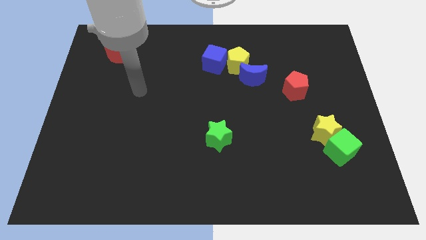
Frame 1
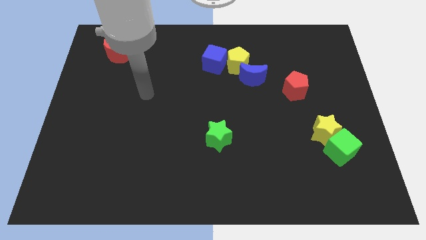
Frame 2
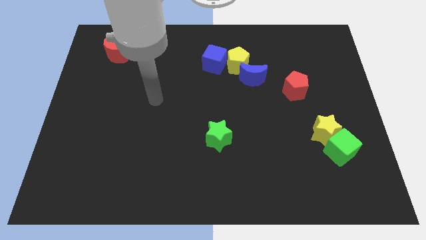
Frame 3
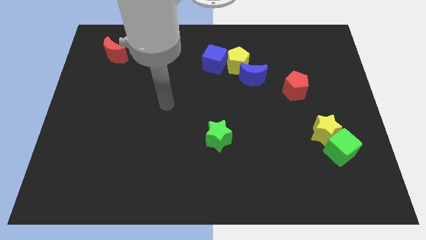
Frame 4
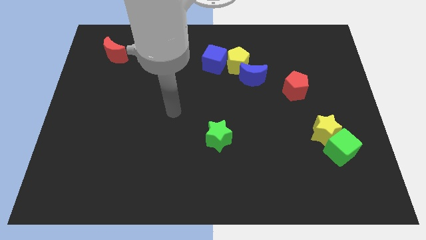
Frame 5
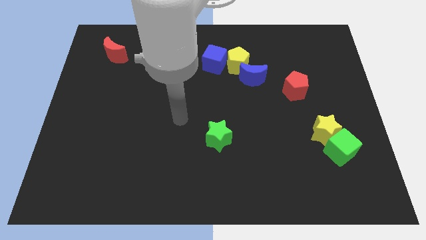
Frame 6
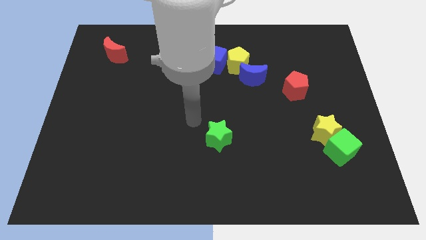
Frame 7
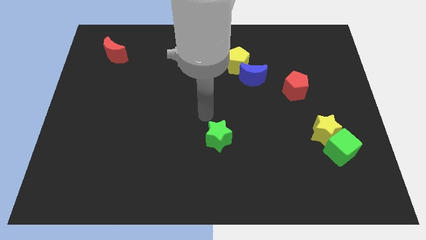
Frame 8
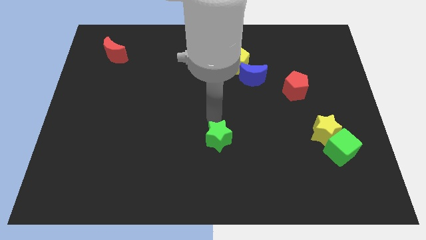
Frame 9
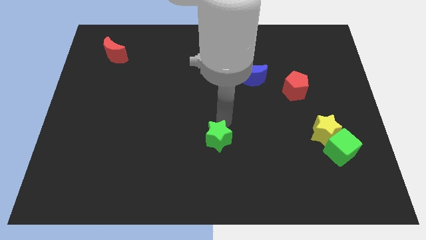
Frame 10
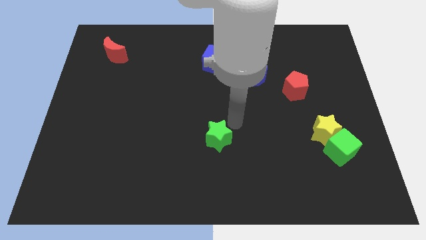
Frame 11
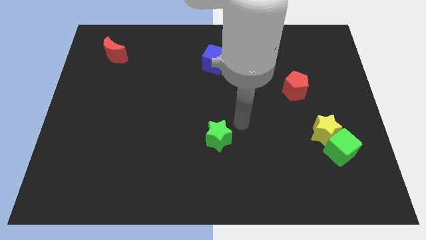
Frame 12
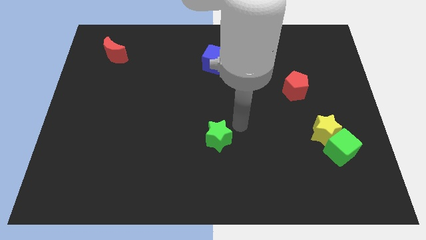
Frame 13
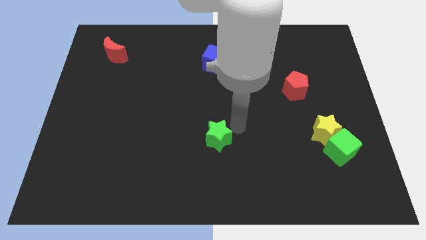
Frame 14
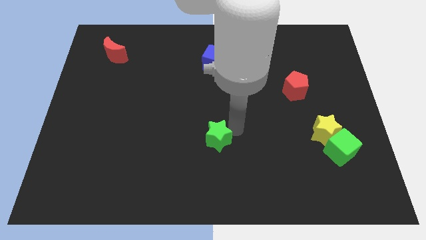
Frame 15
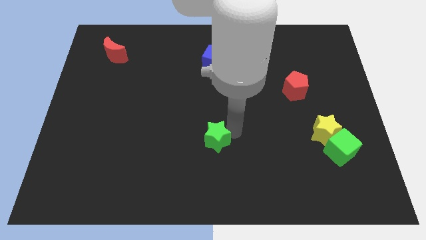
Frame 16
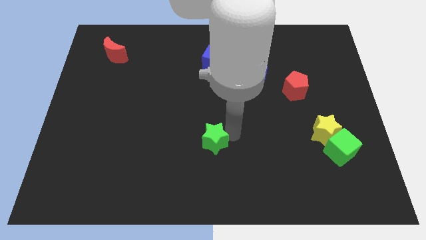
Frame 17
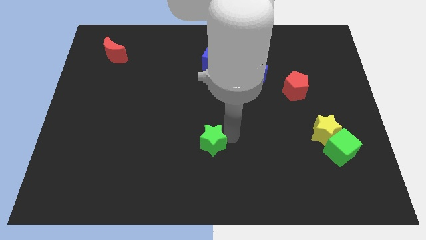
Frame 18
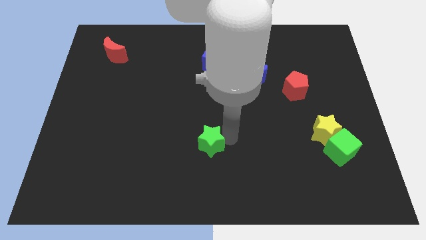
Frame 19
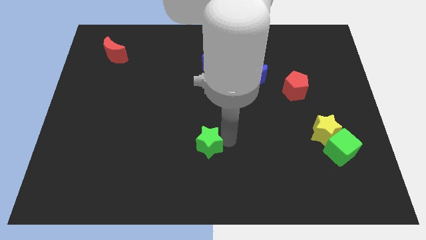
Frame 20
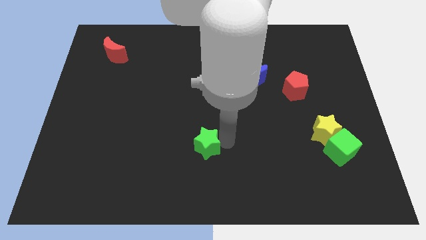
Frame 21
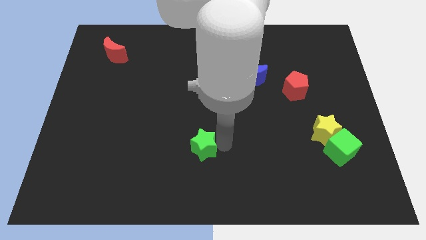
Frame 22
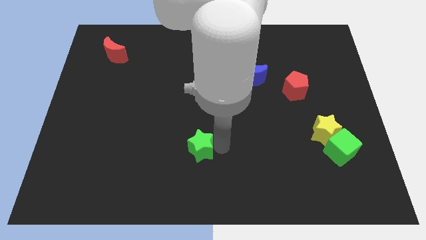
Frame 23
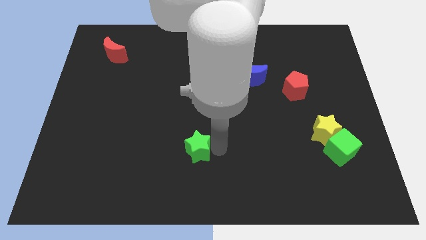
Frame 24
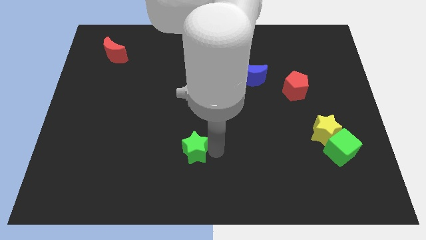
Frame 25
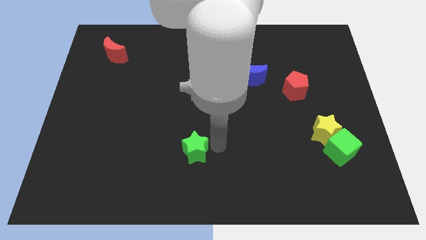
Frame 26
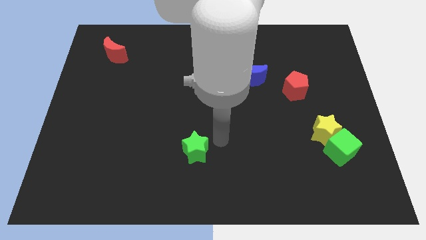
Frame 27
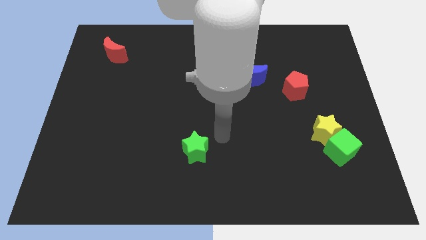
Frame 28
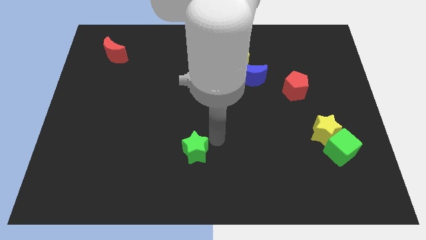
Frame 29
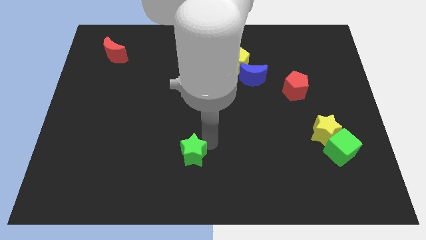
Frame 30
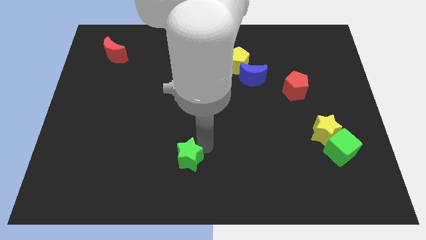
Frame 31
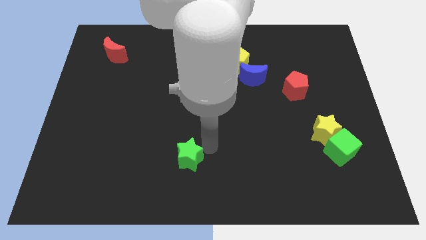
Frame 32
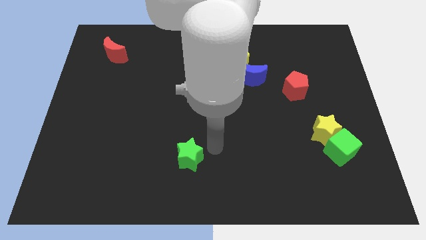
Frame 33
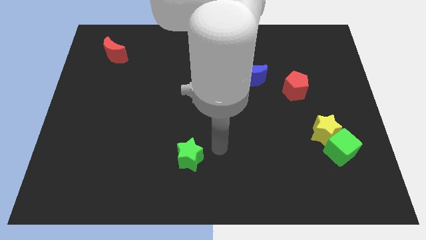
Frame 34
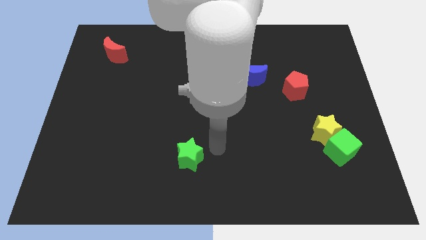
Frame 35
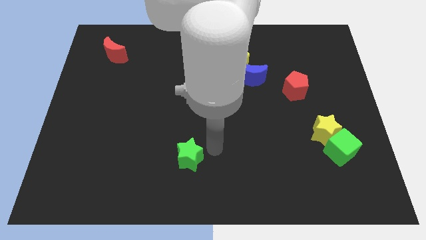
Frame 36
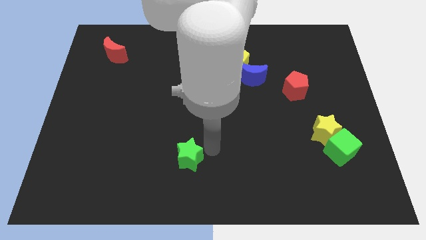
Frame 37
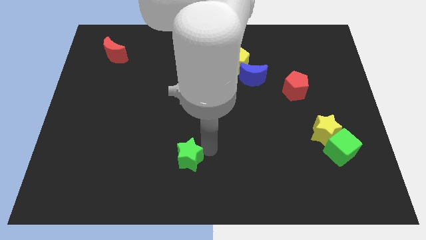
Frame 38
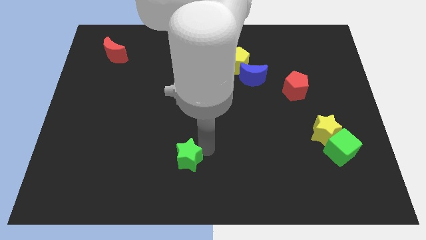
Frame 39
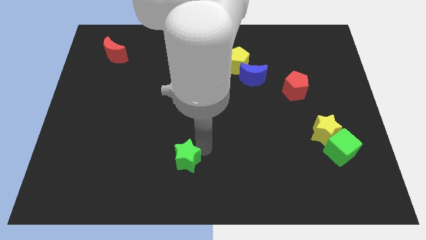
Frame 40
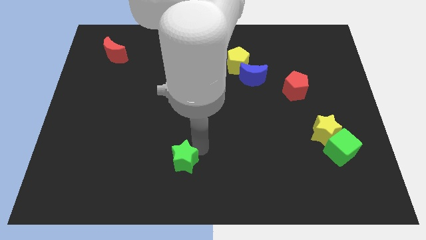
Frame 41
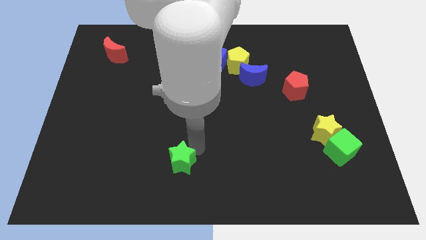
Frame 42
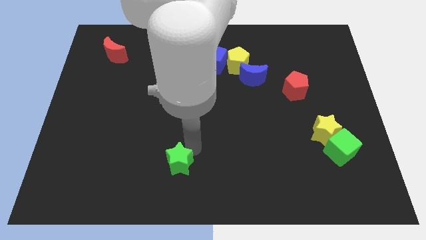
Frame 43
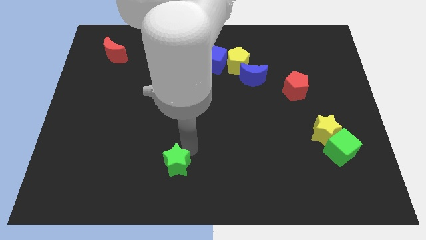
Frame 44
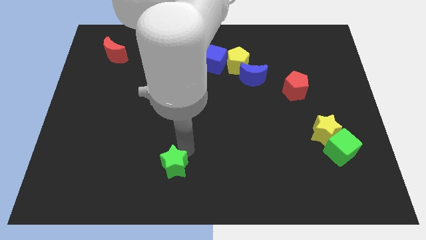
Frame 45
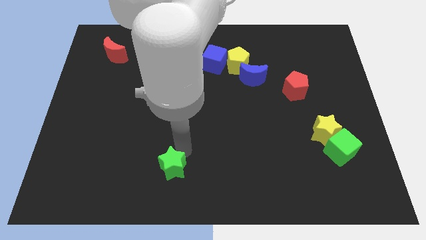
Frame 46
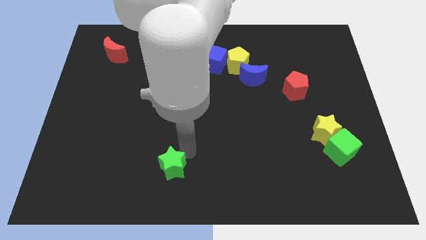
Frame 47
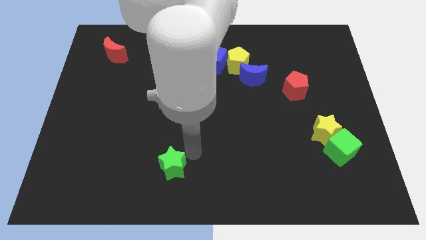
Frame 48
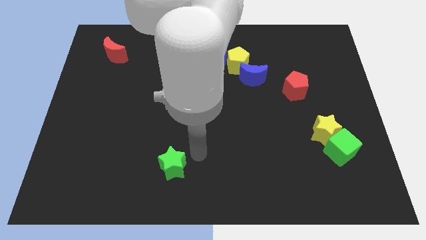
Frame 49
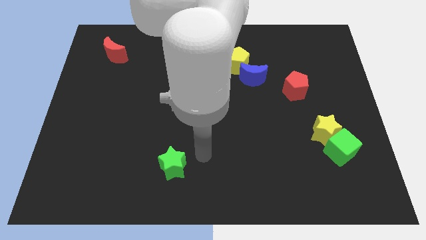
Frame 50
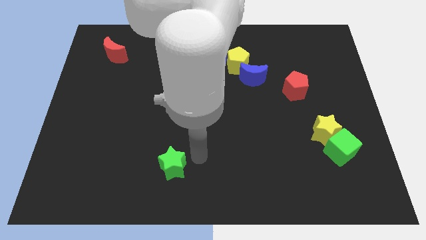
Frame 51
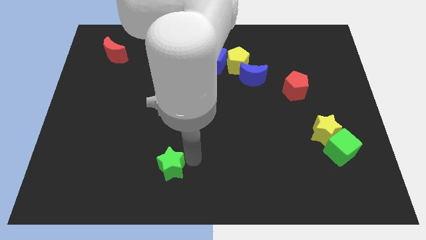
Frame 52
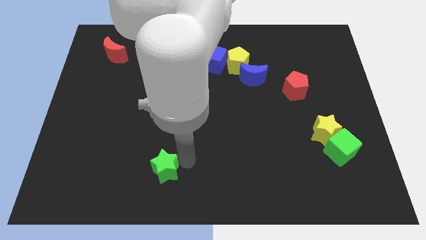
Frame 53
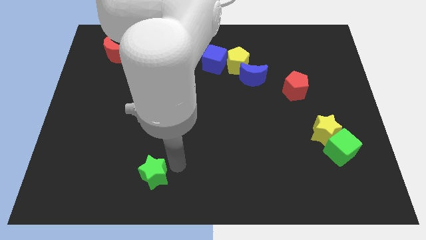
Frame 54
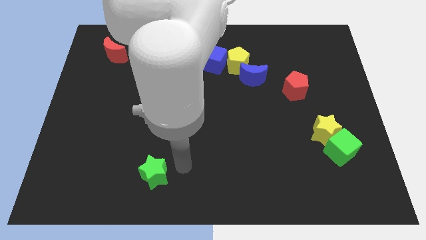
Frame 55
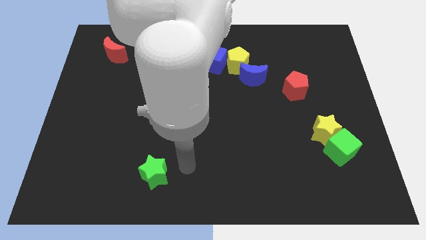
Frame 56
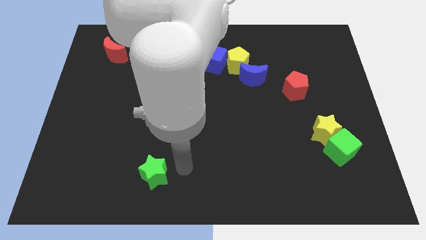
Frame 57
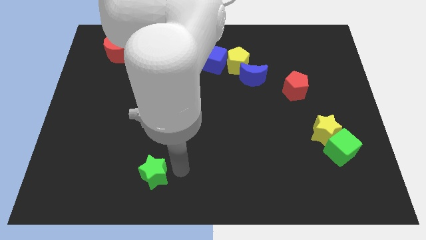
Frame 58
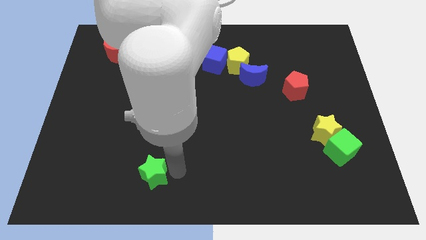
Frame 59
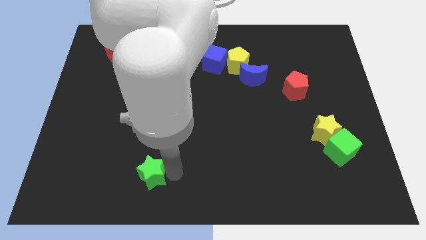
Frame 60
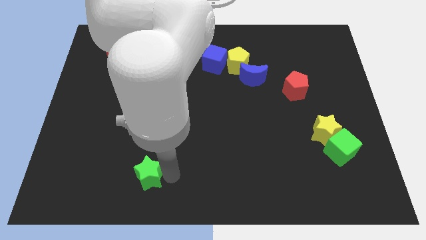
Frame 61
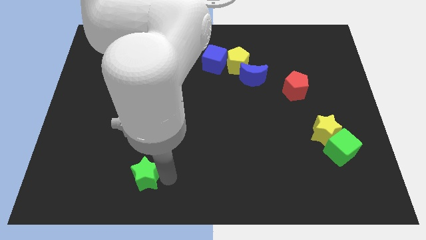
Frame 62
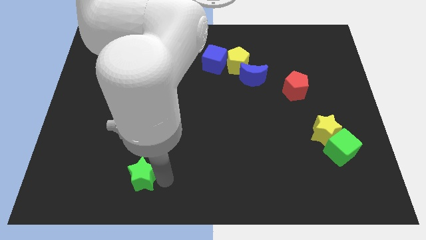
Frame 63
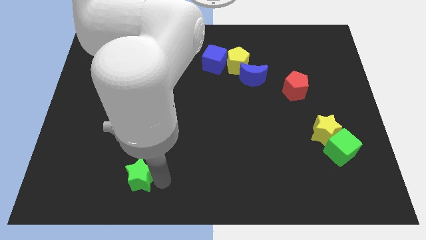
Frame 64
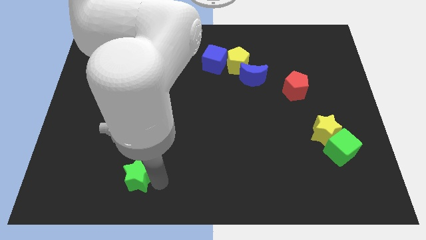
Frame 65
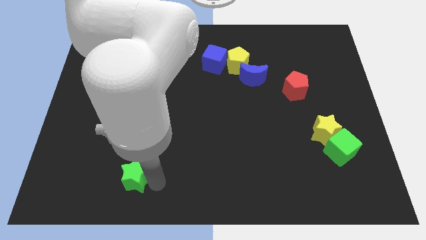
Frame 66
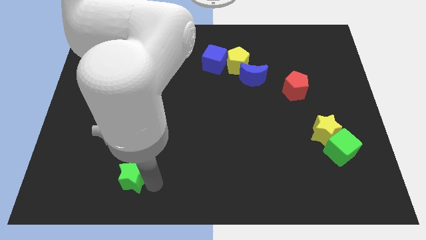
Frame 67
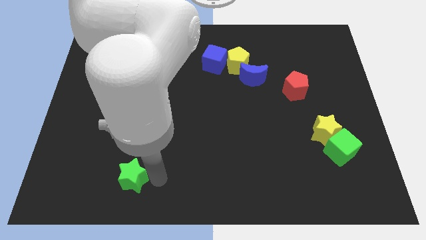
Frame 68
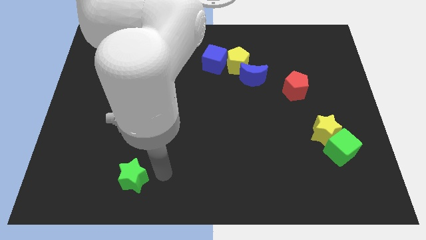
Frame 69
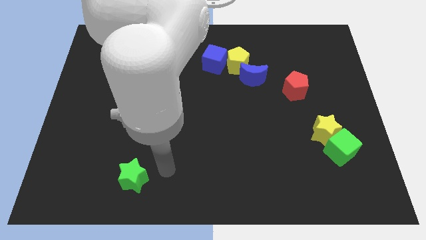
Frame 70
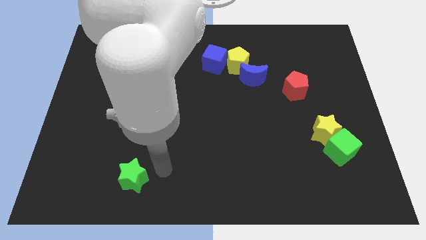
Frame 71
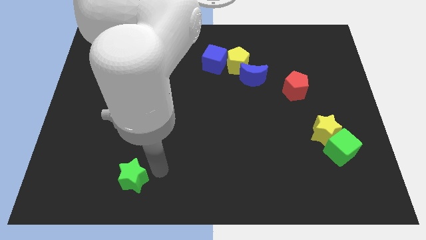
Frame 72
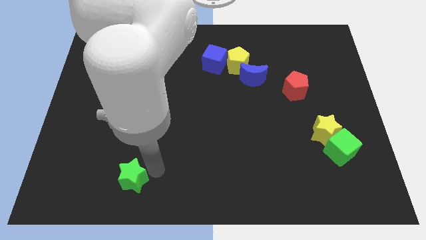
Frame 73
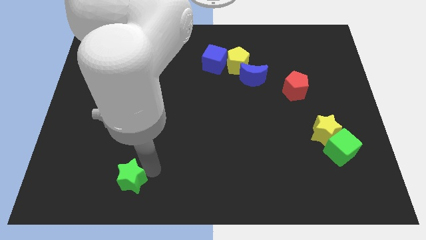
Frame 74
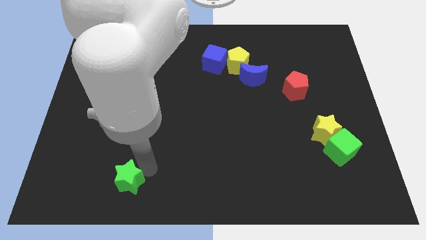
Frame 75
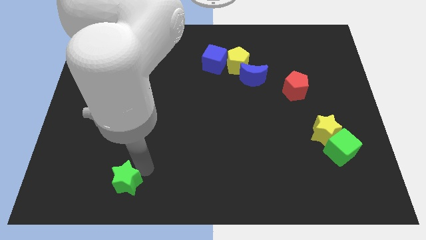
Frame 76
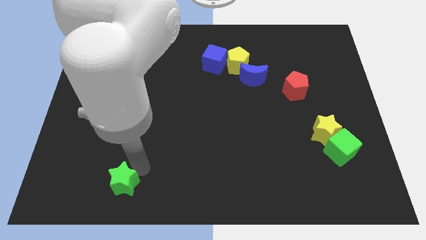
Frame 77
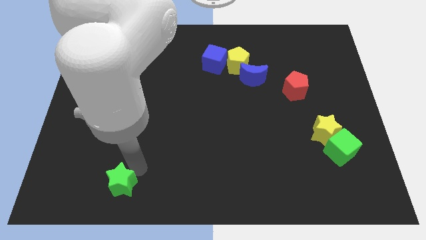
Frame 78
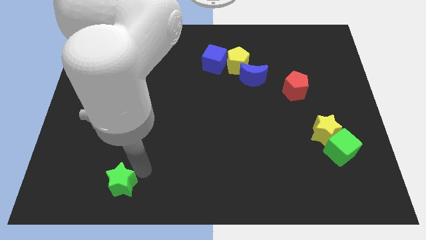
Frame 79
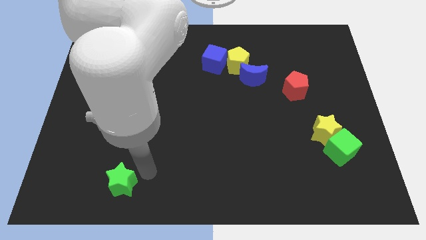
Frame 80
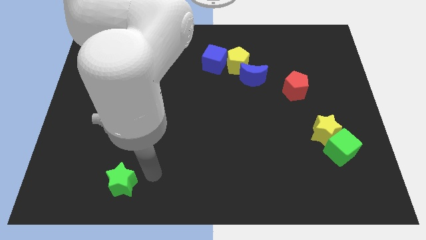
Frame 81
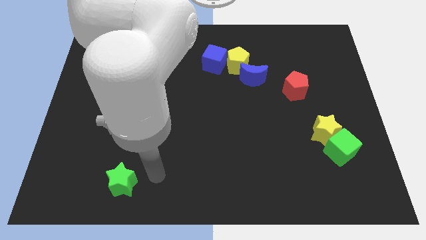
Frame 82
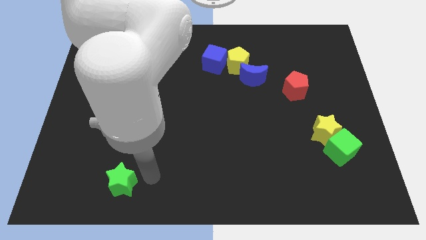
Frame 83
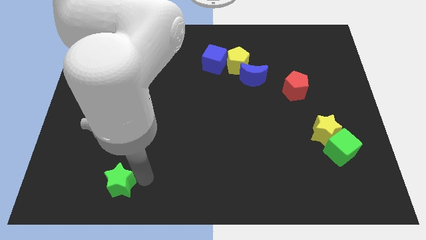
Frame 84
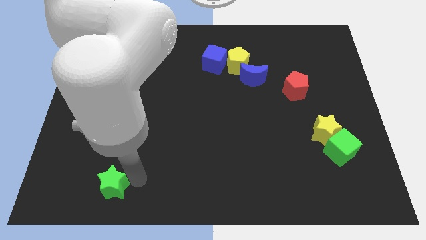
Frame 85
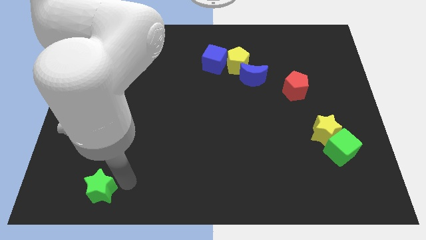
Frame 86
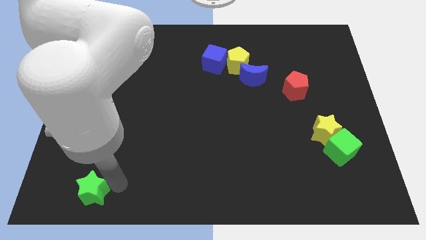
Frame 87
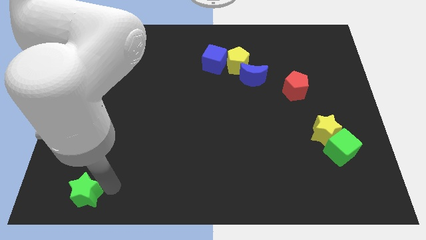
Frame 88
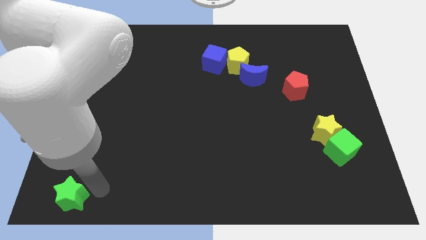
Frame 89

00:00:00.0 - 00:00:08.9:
put the green star to the lower left corner
